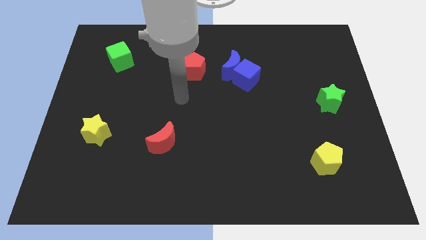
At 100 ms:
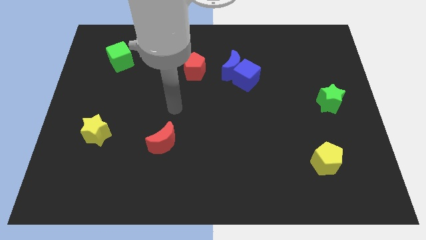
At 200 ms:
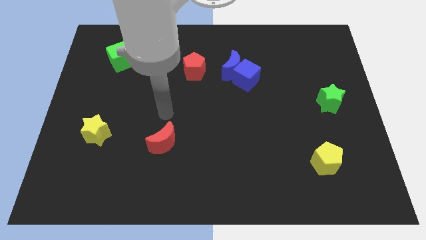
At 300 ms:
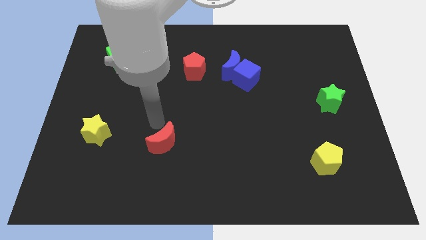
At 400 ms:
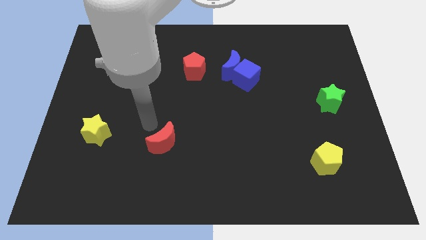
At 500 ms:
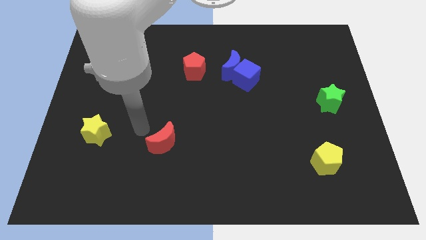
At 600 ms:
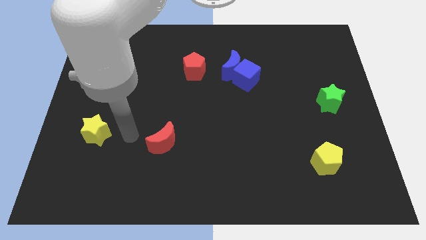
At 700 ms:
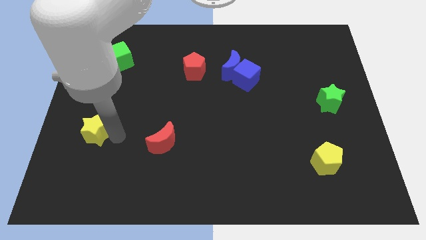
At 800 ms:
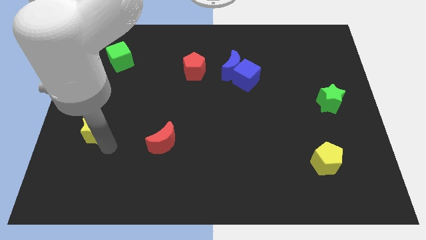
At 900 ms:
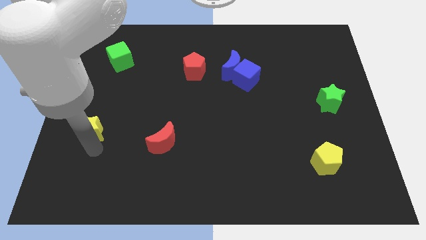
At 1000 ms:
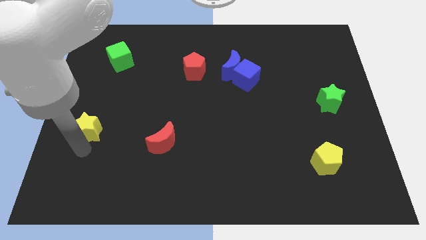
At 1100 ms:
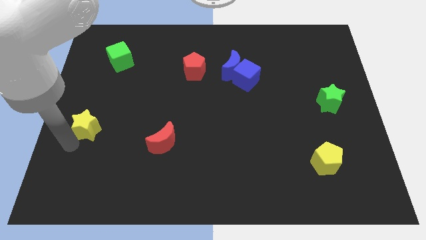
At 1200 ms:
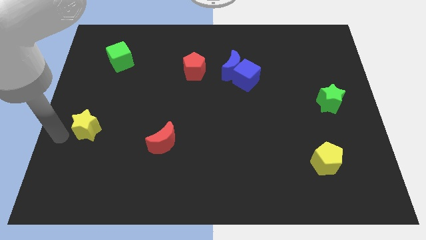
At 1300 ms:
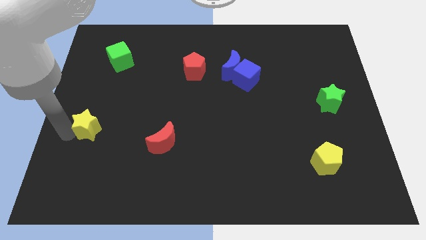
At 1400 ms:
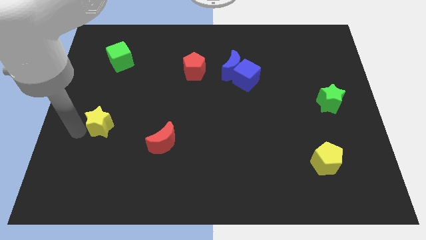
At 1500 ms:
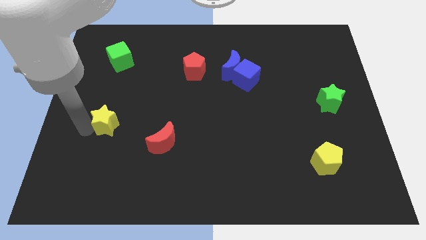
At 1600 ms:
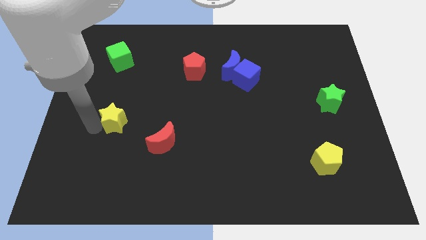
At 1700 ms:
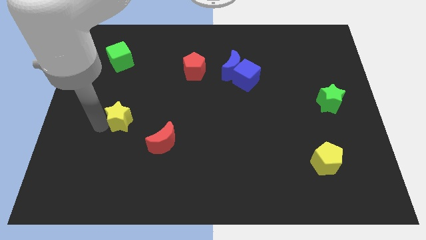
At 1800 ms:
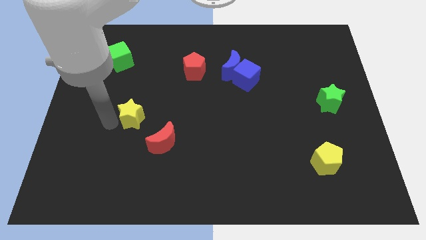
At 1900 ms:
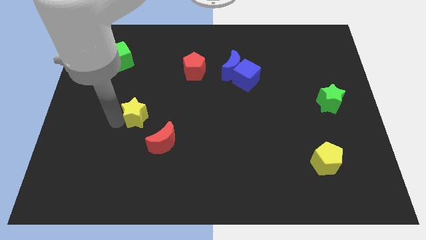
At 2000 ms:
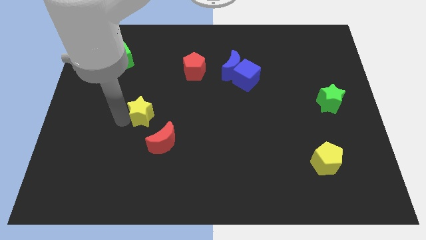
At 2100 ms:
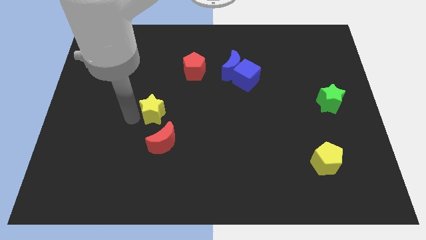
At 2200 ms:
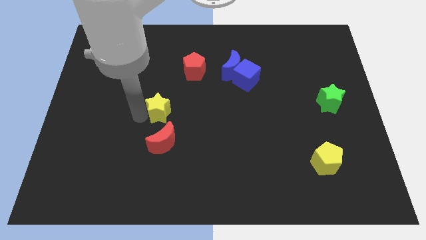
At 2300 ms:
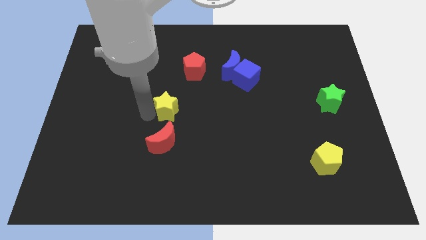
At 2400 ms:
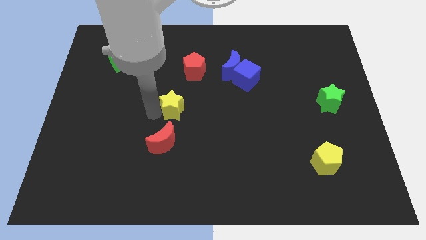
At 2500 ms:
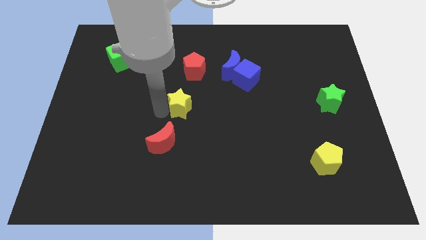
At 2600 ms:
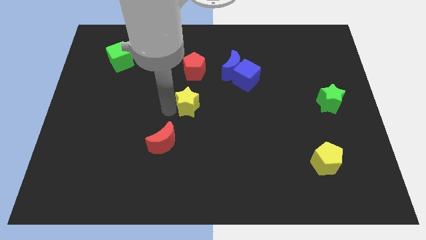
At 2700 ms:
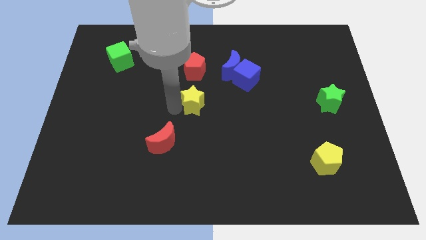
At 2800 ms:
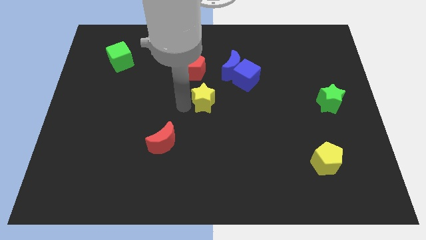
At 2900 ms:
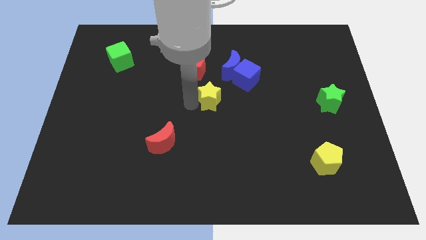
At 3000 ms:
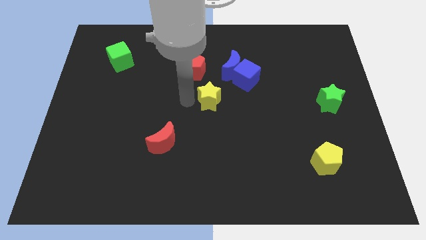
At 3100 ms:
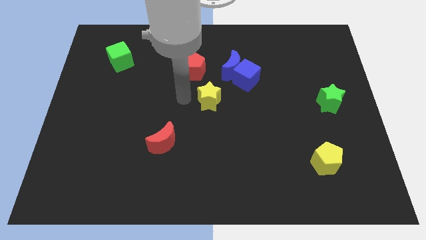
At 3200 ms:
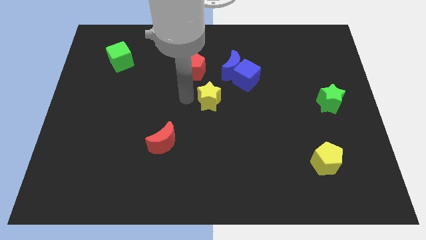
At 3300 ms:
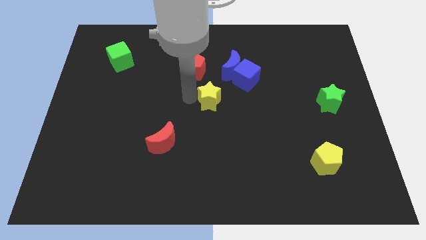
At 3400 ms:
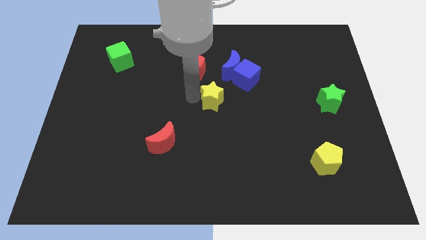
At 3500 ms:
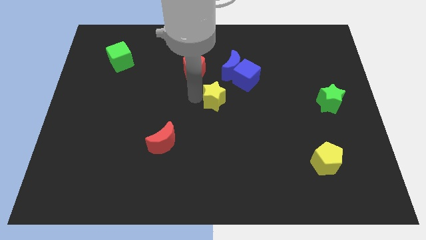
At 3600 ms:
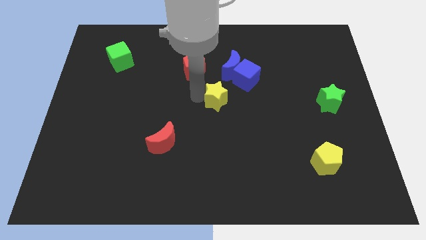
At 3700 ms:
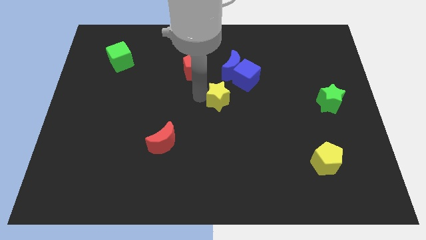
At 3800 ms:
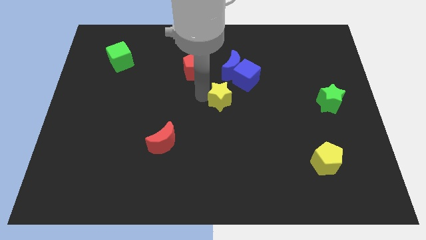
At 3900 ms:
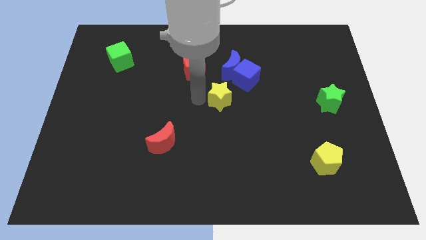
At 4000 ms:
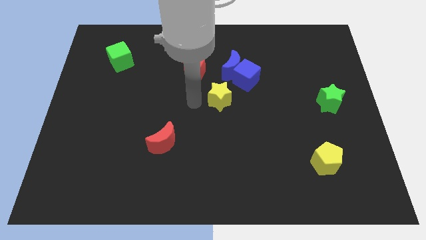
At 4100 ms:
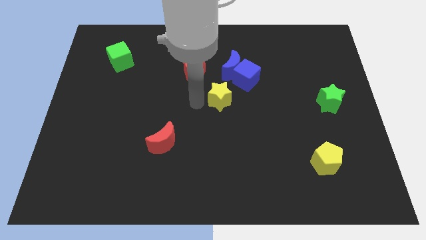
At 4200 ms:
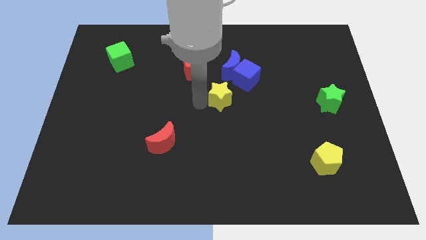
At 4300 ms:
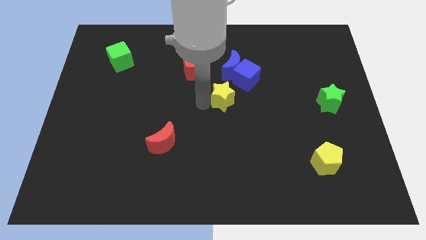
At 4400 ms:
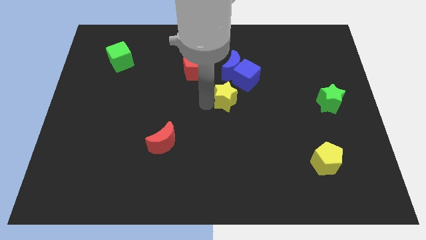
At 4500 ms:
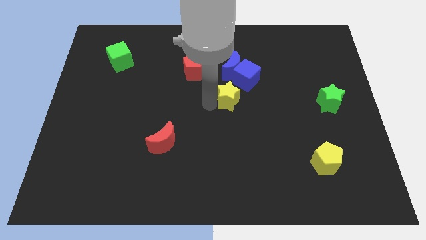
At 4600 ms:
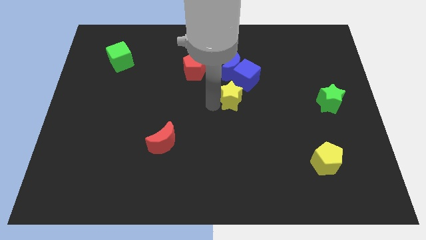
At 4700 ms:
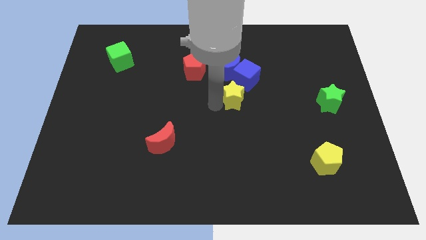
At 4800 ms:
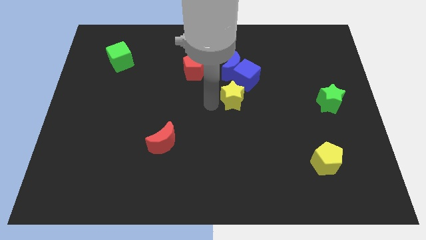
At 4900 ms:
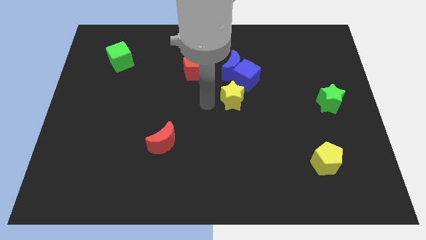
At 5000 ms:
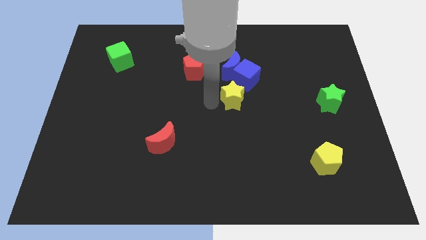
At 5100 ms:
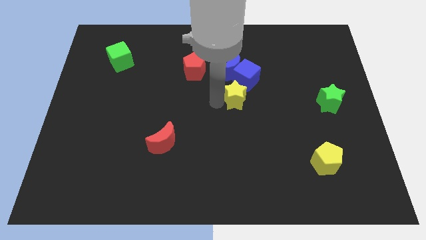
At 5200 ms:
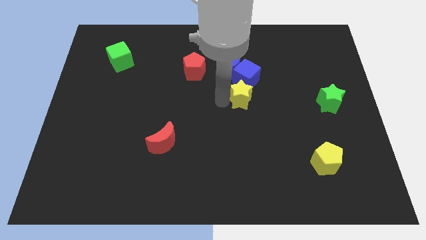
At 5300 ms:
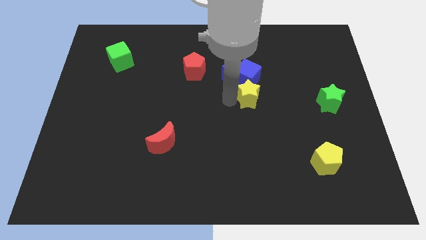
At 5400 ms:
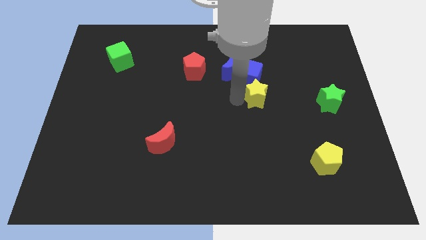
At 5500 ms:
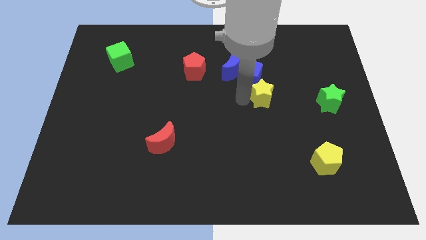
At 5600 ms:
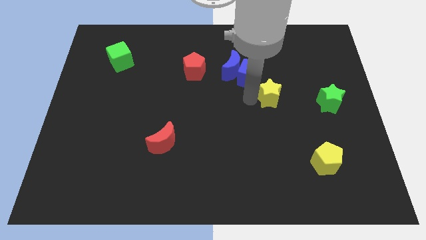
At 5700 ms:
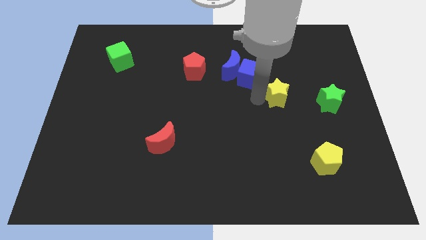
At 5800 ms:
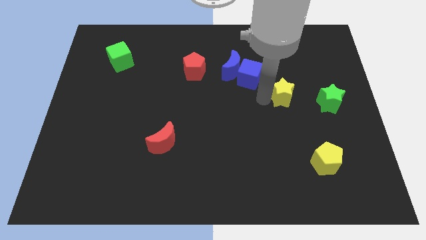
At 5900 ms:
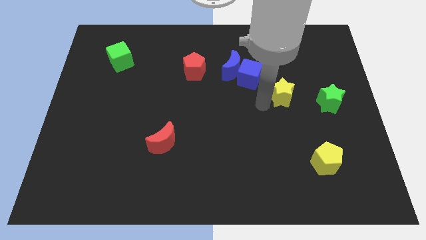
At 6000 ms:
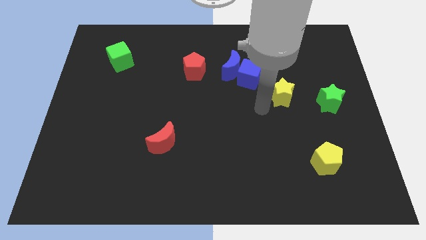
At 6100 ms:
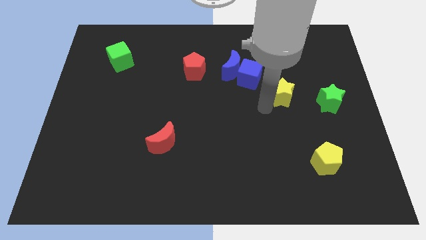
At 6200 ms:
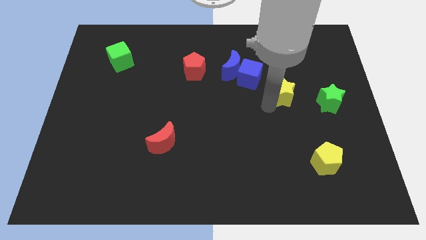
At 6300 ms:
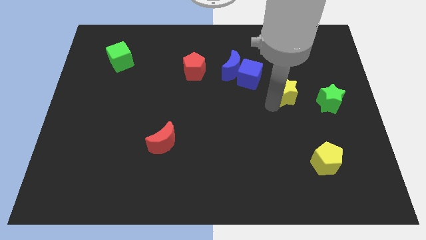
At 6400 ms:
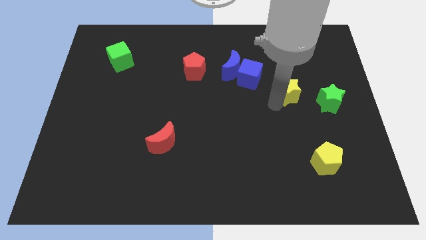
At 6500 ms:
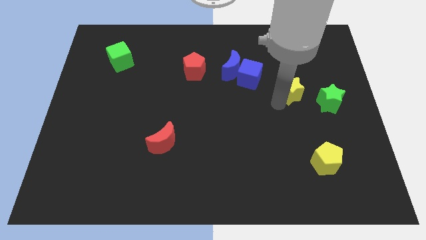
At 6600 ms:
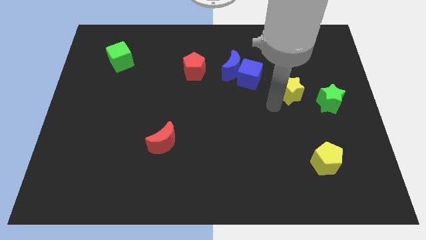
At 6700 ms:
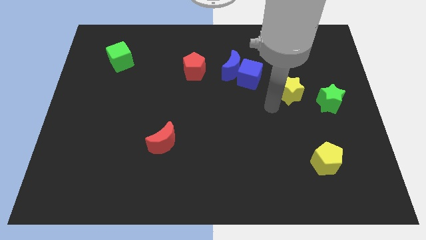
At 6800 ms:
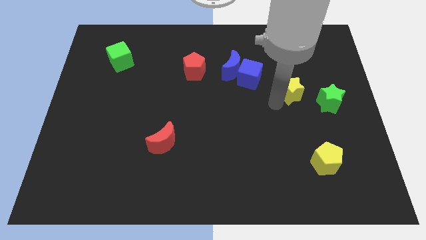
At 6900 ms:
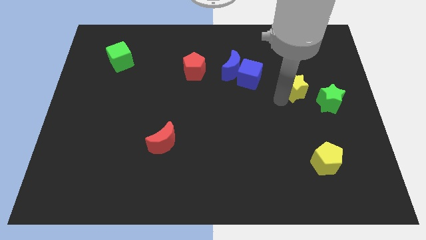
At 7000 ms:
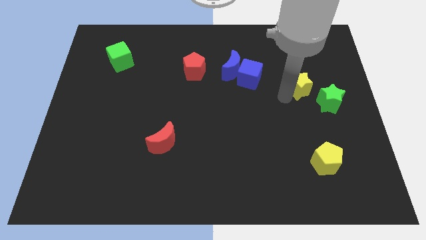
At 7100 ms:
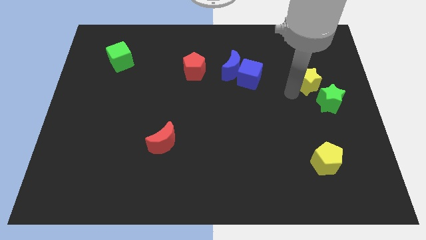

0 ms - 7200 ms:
slide the yellow star to the top of the green star
